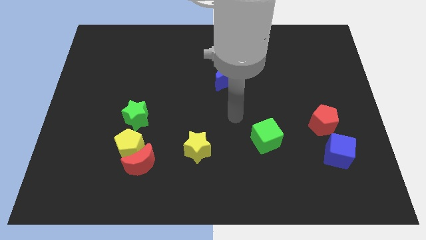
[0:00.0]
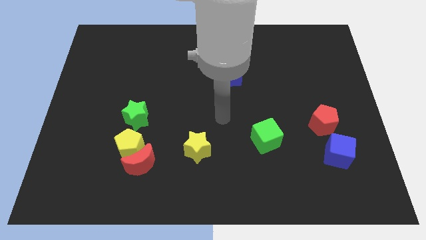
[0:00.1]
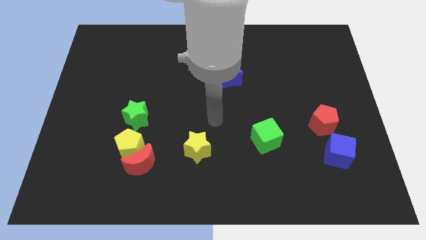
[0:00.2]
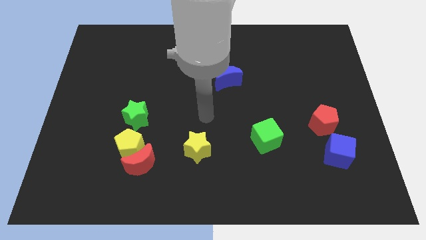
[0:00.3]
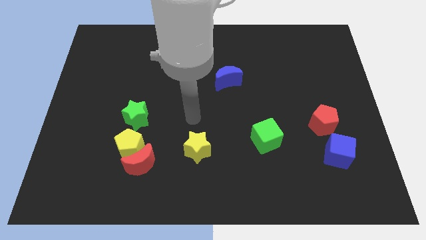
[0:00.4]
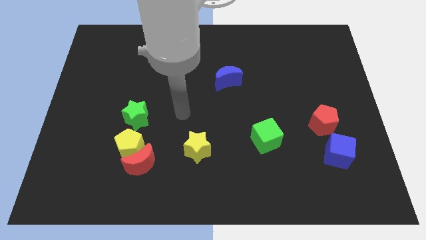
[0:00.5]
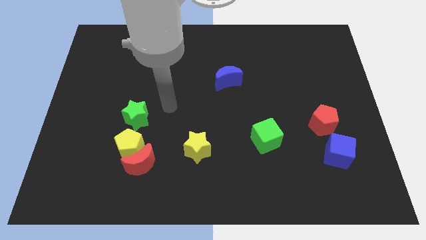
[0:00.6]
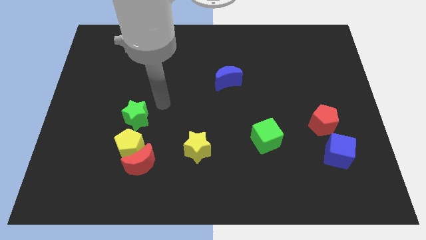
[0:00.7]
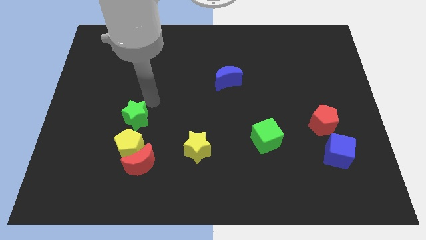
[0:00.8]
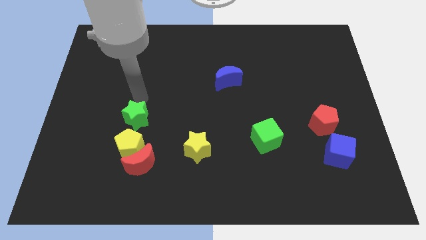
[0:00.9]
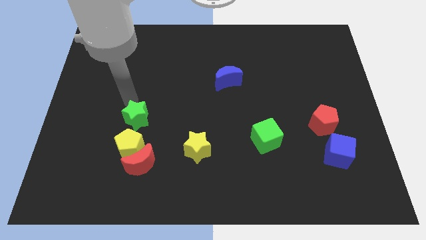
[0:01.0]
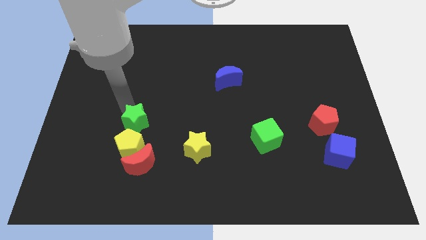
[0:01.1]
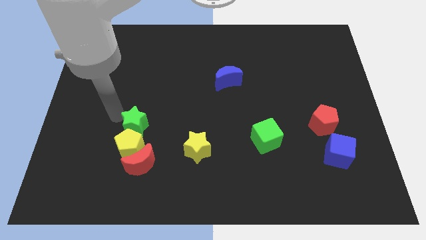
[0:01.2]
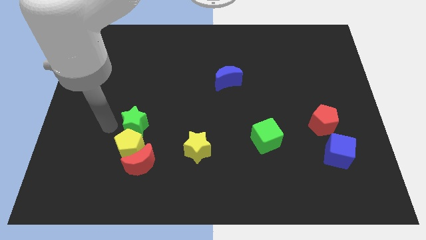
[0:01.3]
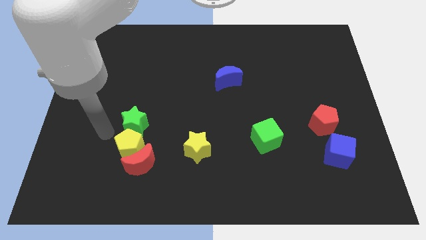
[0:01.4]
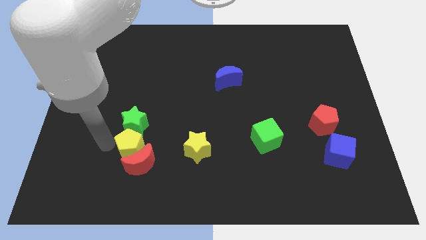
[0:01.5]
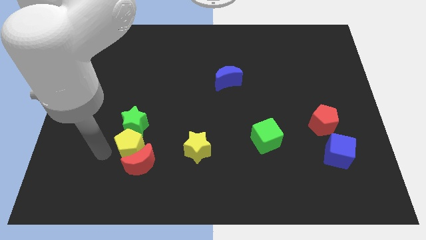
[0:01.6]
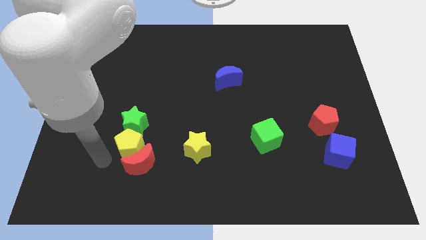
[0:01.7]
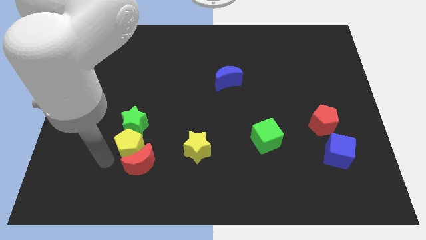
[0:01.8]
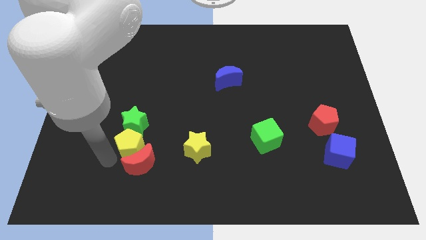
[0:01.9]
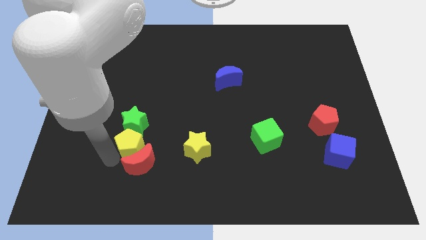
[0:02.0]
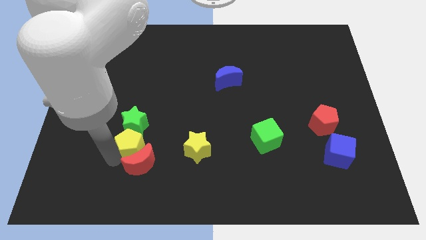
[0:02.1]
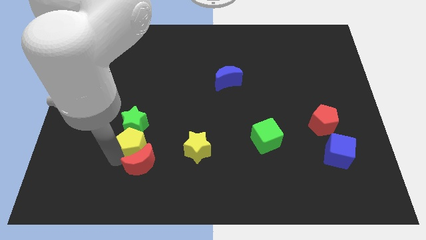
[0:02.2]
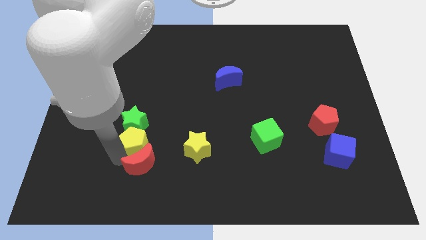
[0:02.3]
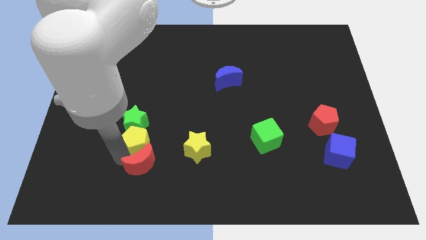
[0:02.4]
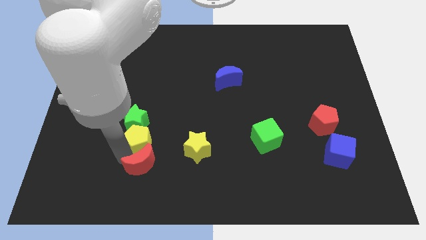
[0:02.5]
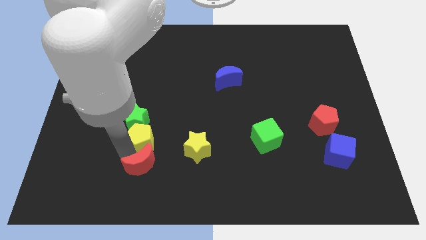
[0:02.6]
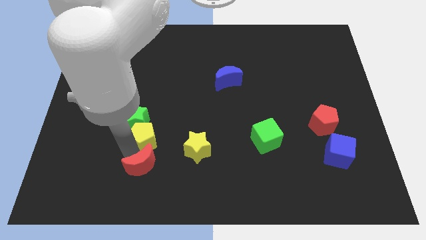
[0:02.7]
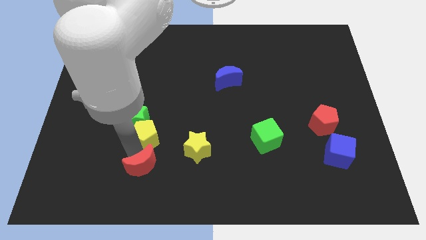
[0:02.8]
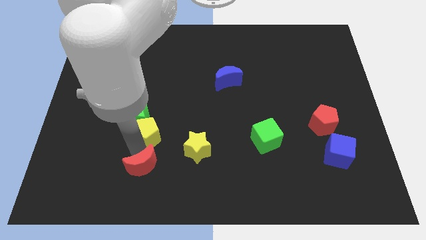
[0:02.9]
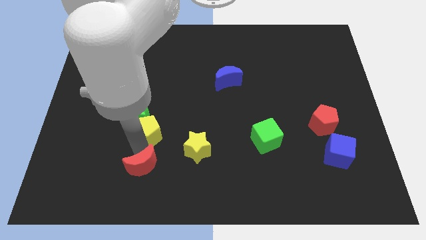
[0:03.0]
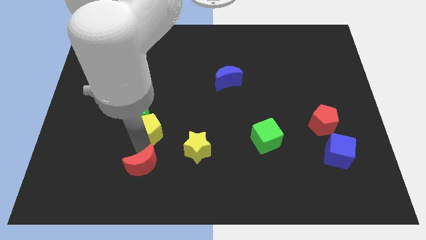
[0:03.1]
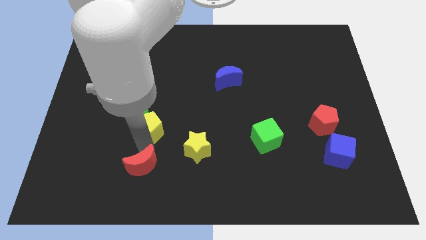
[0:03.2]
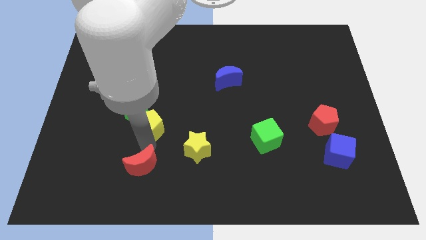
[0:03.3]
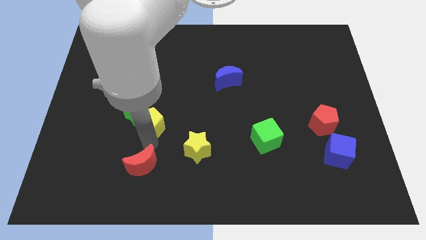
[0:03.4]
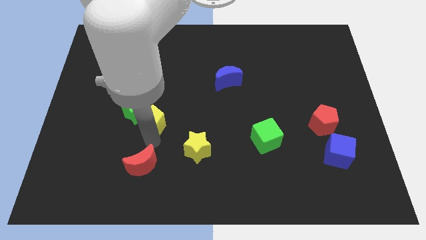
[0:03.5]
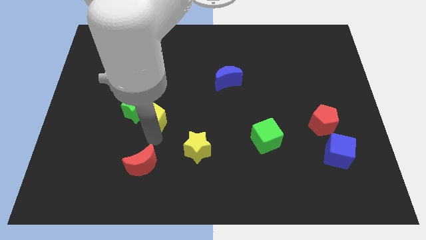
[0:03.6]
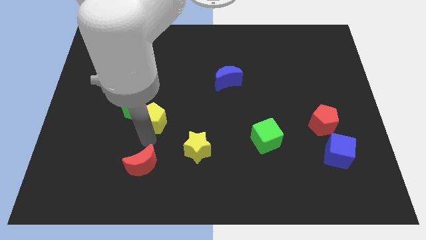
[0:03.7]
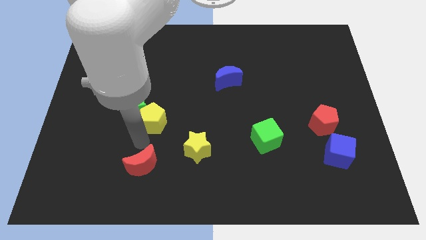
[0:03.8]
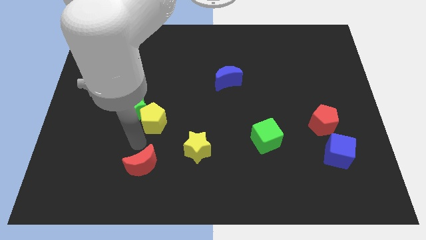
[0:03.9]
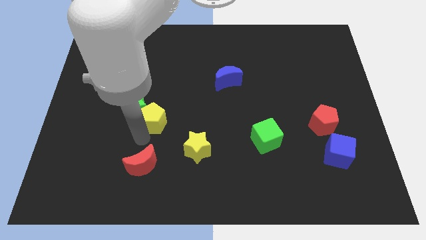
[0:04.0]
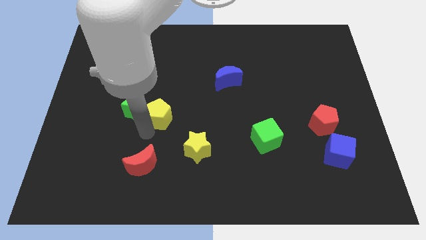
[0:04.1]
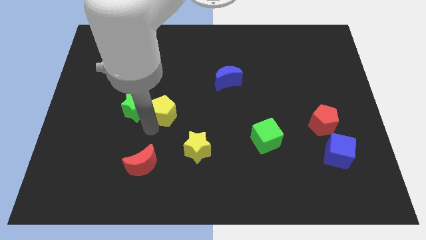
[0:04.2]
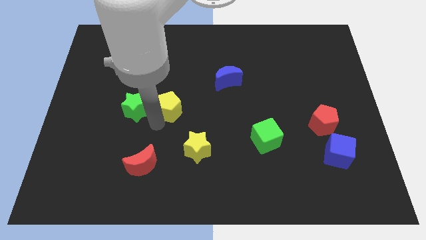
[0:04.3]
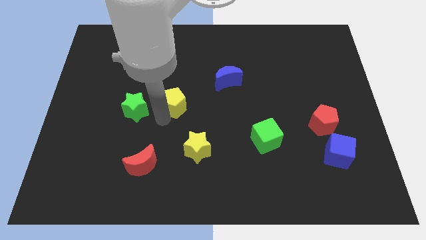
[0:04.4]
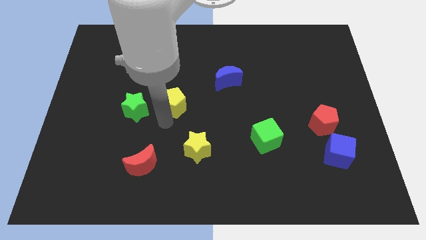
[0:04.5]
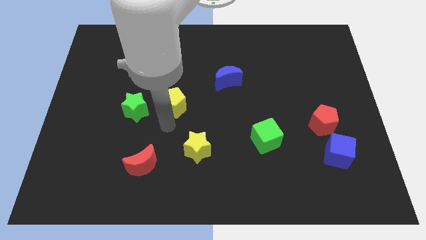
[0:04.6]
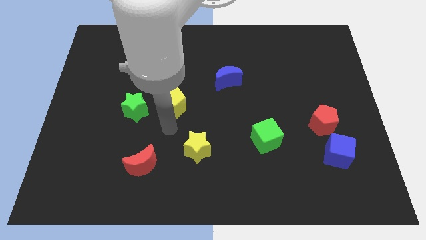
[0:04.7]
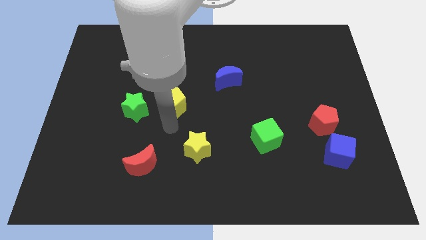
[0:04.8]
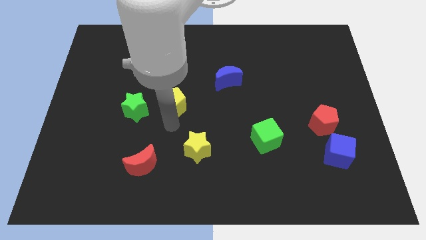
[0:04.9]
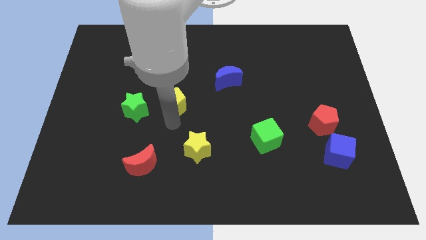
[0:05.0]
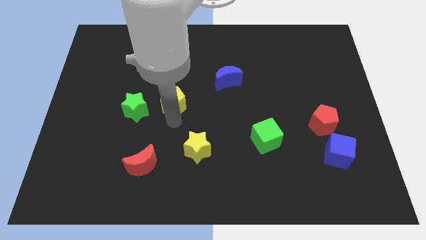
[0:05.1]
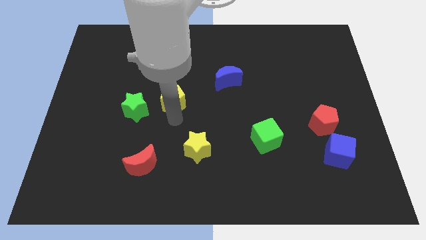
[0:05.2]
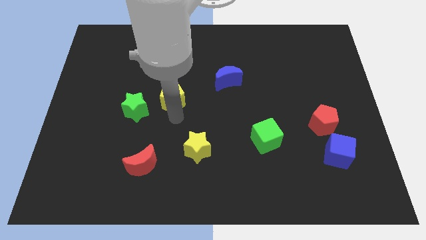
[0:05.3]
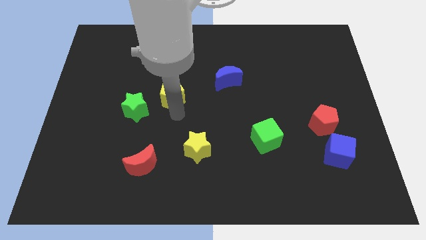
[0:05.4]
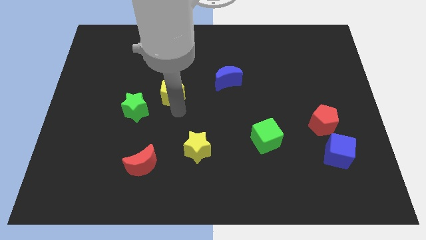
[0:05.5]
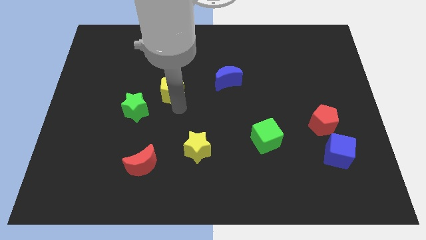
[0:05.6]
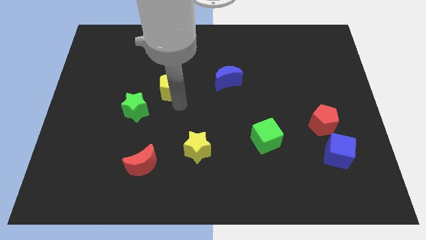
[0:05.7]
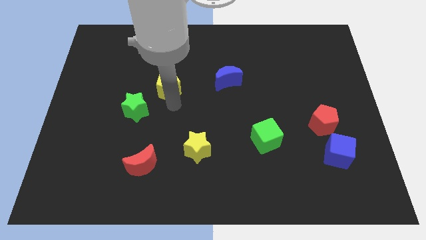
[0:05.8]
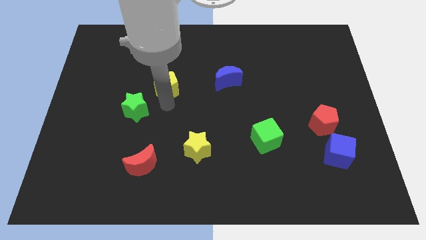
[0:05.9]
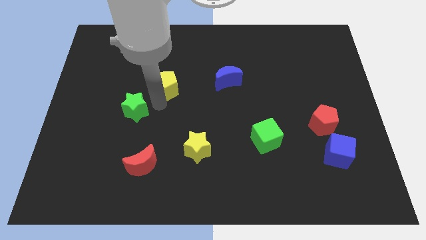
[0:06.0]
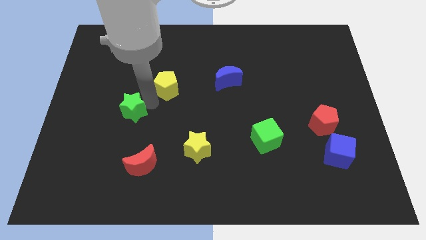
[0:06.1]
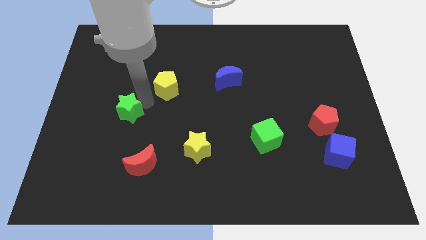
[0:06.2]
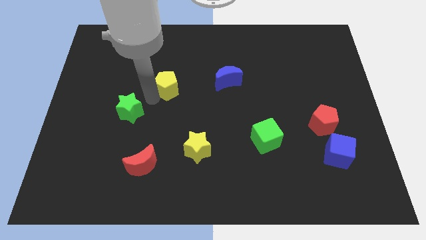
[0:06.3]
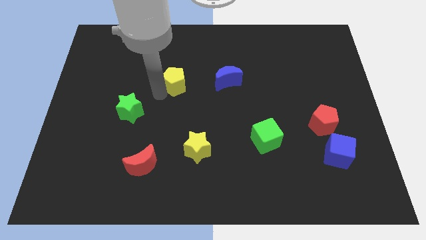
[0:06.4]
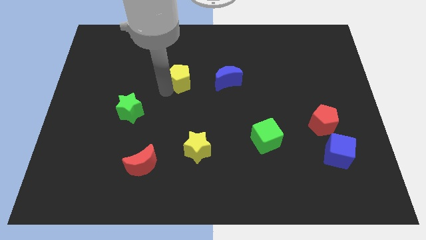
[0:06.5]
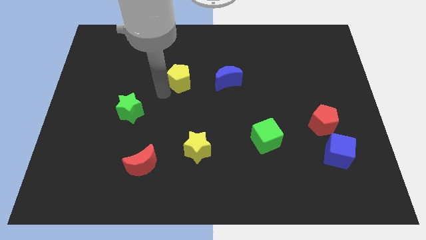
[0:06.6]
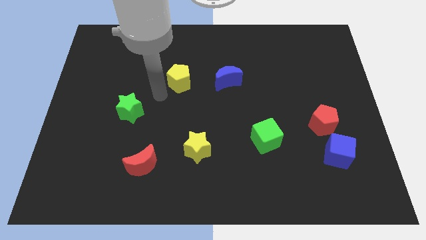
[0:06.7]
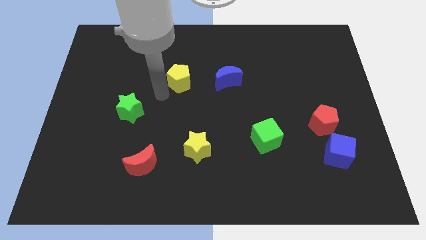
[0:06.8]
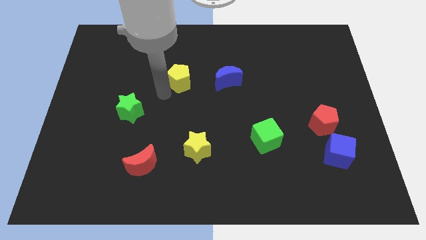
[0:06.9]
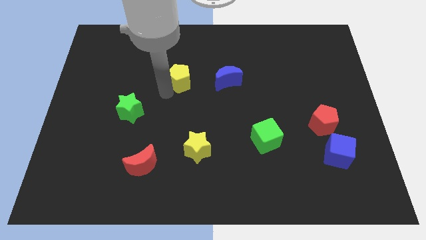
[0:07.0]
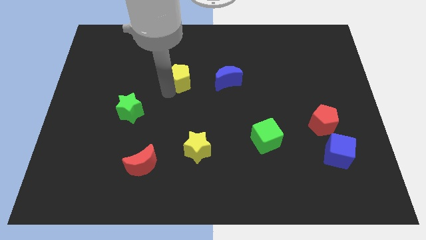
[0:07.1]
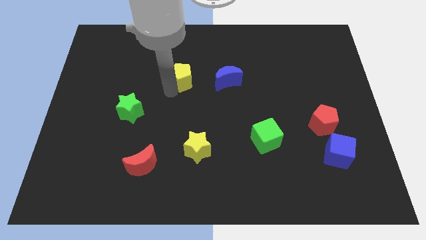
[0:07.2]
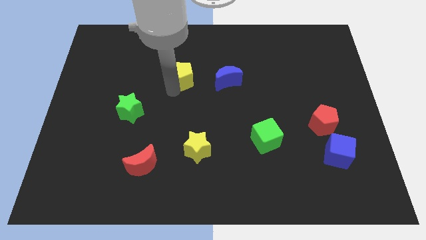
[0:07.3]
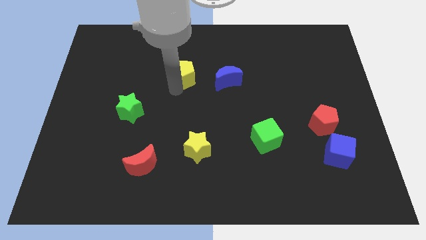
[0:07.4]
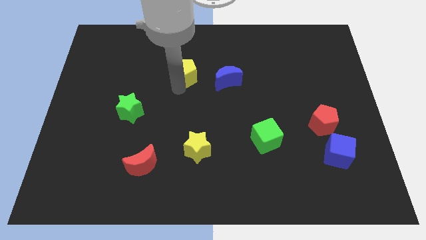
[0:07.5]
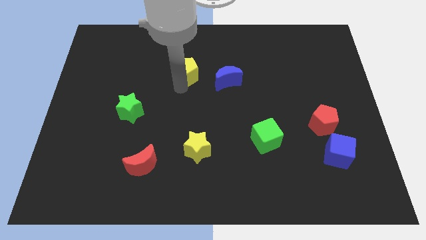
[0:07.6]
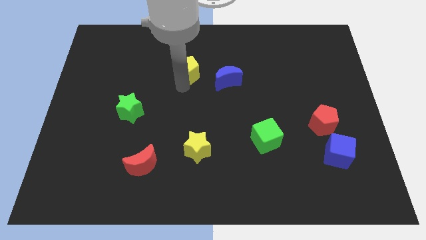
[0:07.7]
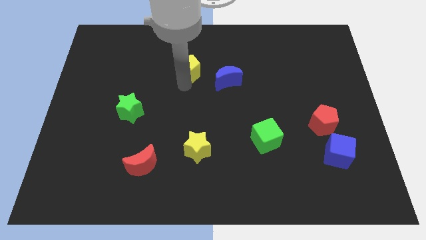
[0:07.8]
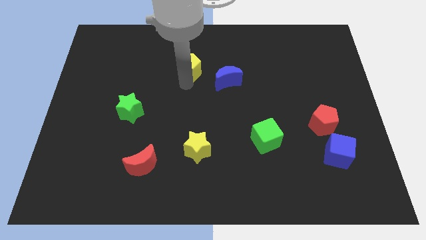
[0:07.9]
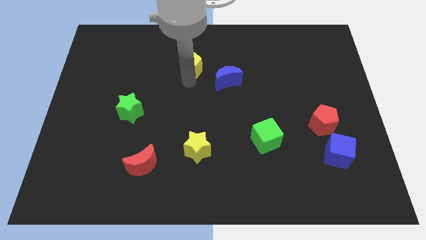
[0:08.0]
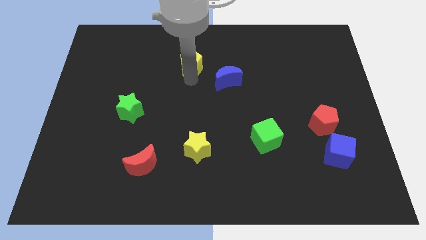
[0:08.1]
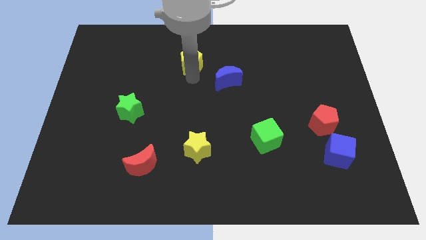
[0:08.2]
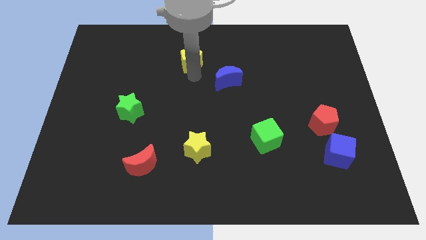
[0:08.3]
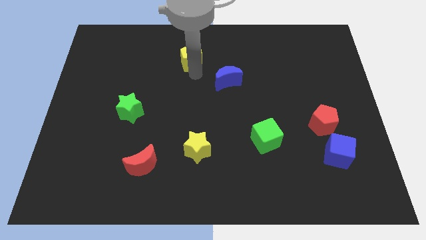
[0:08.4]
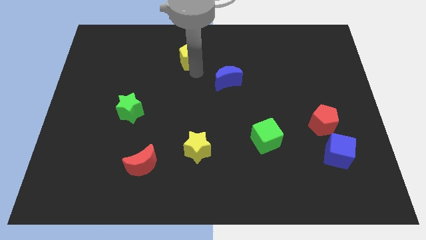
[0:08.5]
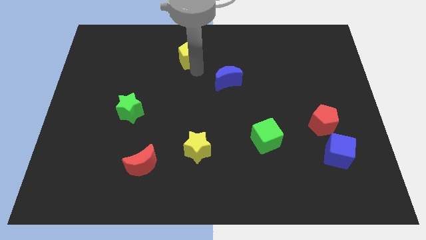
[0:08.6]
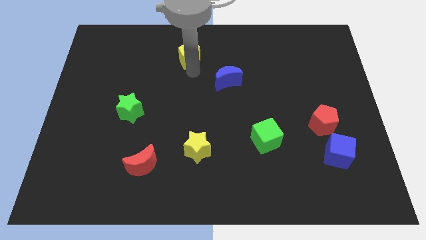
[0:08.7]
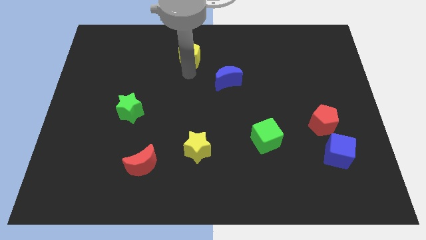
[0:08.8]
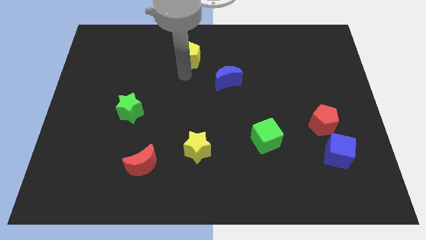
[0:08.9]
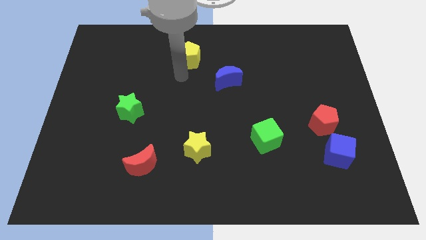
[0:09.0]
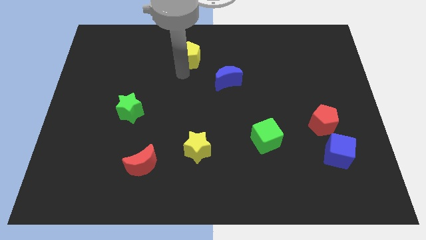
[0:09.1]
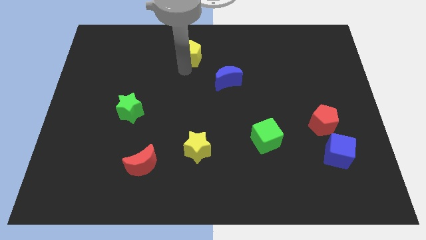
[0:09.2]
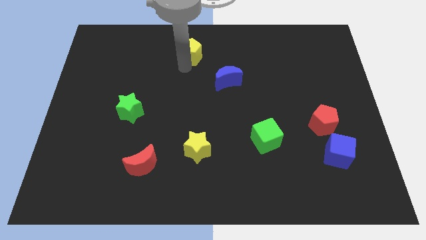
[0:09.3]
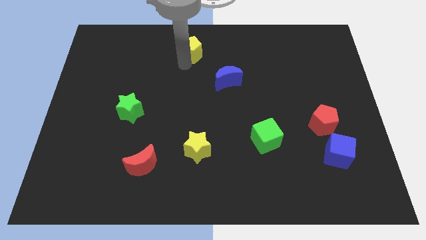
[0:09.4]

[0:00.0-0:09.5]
slide the yellow pentagon to the top side
